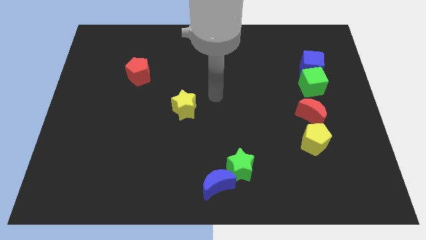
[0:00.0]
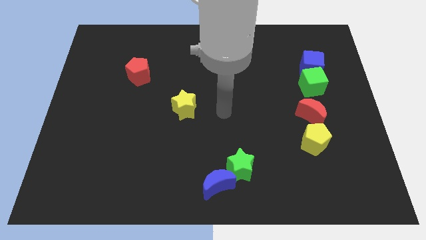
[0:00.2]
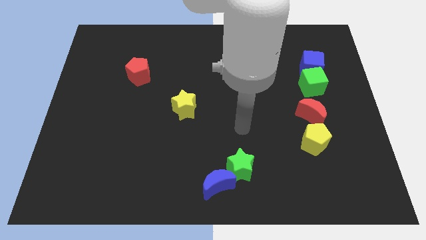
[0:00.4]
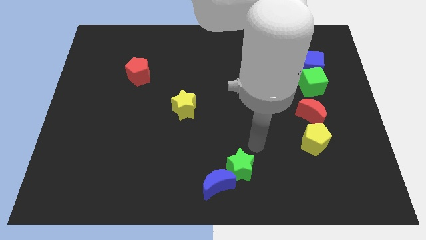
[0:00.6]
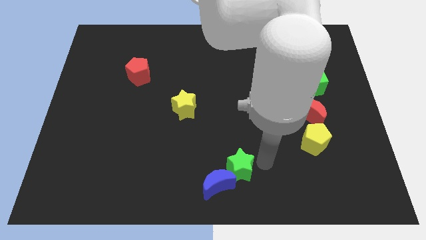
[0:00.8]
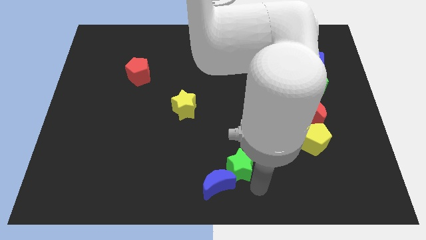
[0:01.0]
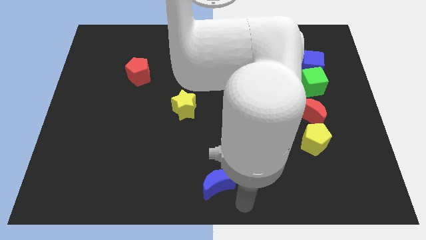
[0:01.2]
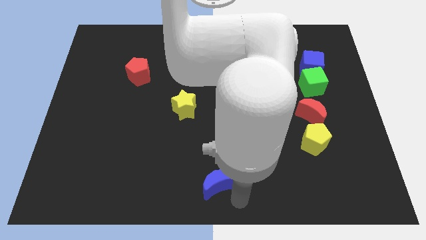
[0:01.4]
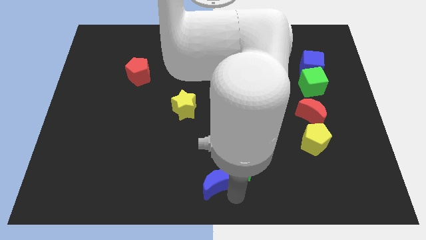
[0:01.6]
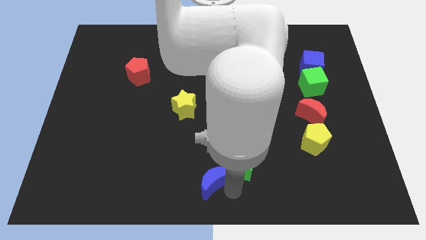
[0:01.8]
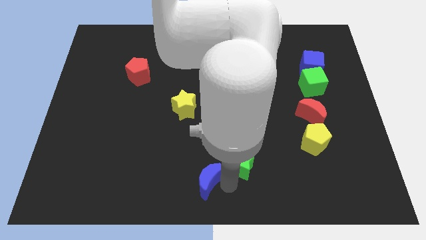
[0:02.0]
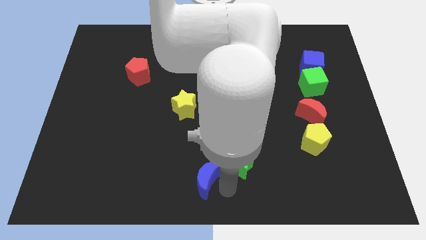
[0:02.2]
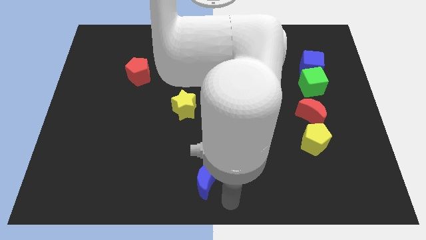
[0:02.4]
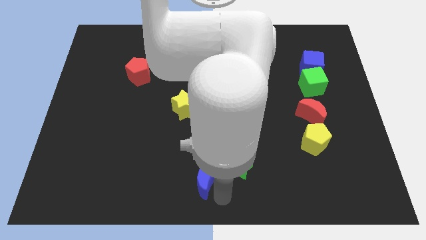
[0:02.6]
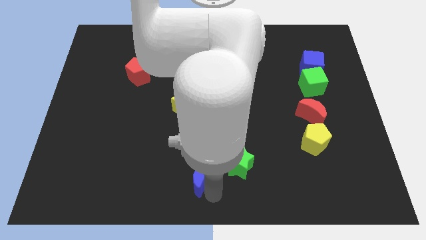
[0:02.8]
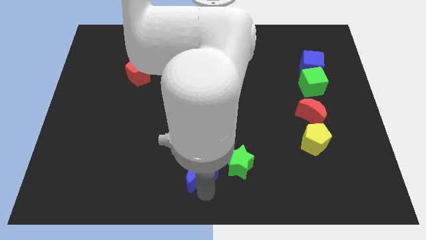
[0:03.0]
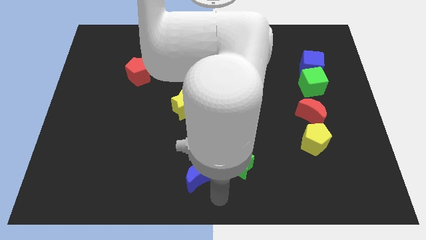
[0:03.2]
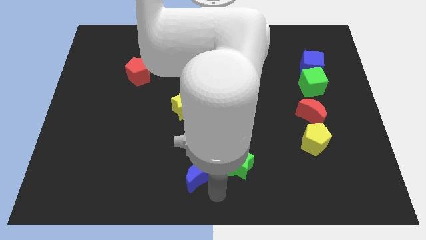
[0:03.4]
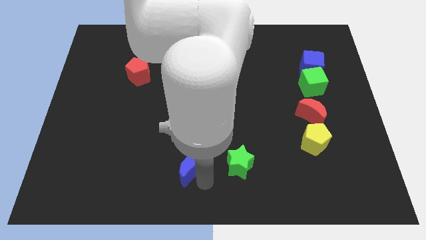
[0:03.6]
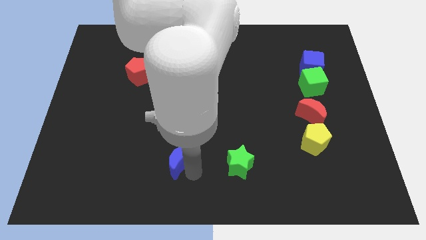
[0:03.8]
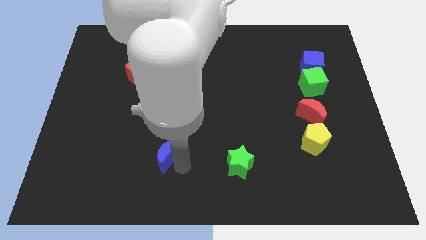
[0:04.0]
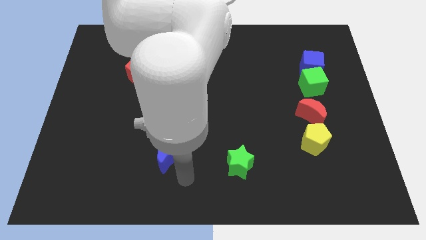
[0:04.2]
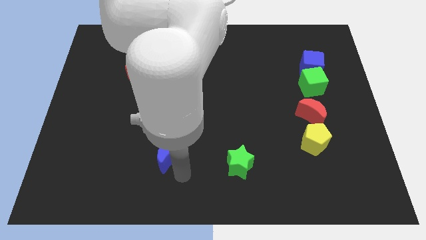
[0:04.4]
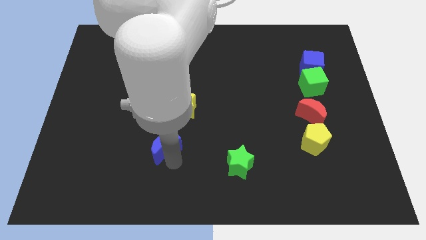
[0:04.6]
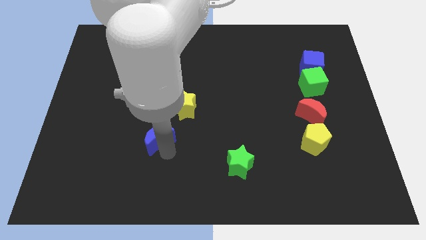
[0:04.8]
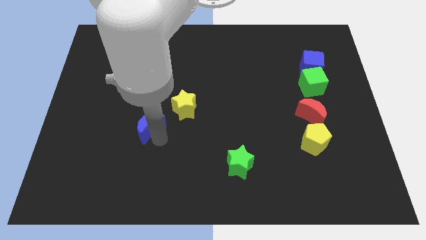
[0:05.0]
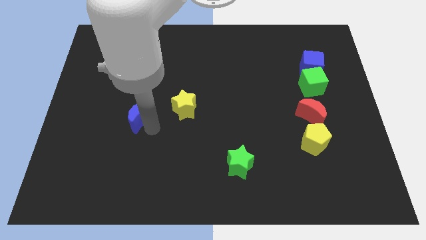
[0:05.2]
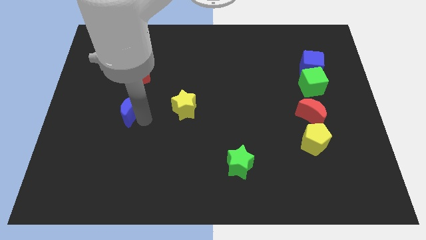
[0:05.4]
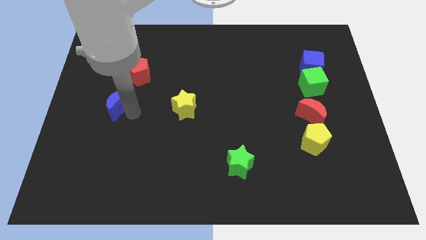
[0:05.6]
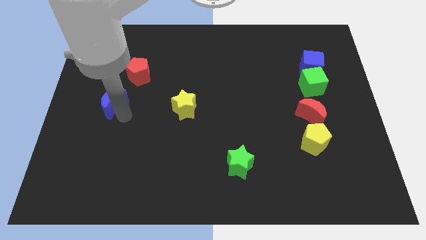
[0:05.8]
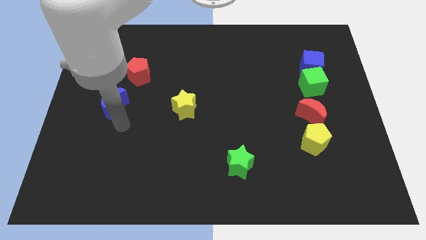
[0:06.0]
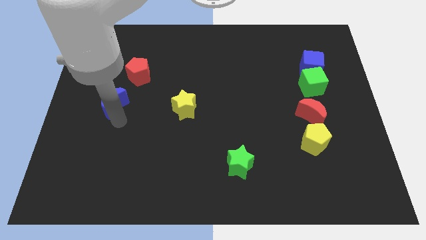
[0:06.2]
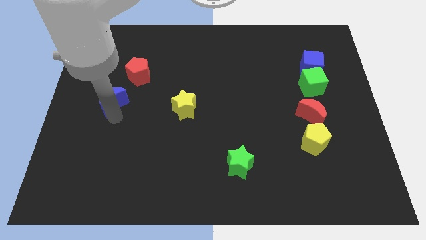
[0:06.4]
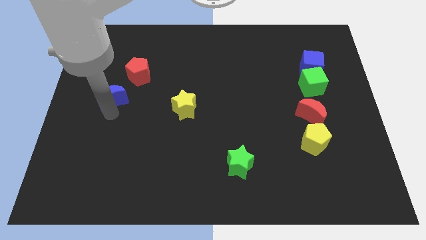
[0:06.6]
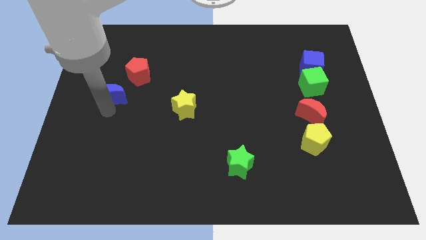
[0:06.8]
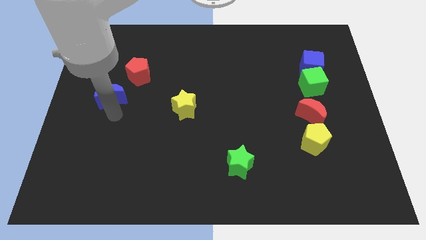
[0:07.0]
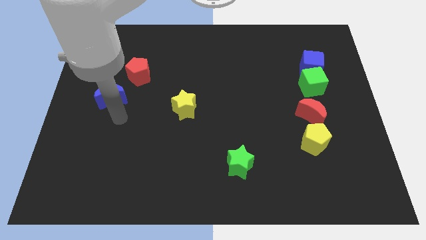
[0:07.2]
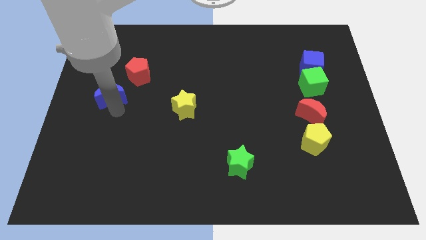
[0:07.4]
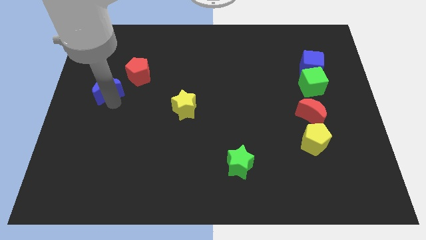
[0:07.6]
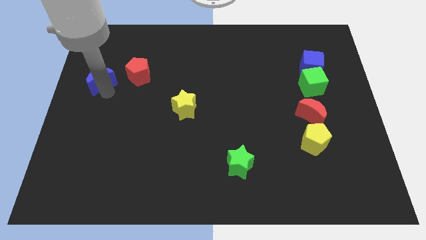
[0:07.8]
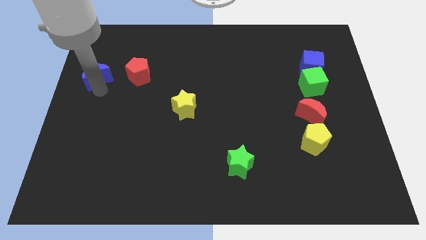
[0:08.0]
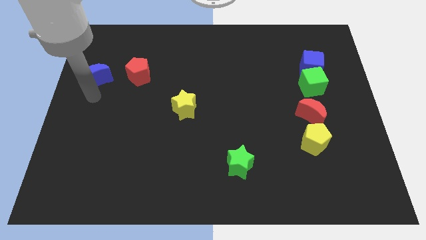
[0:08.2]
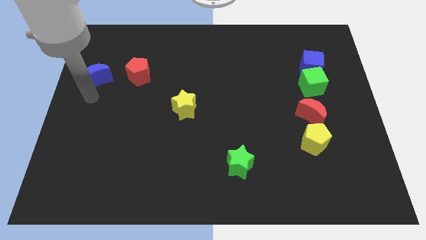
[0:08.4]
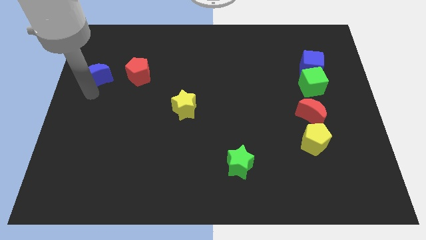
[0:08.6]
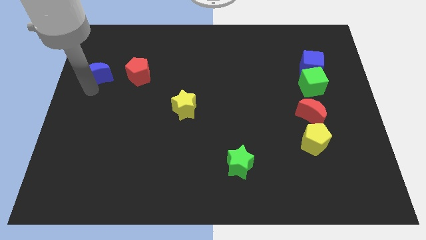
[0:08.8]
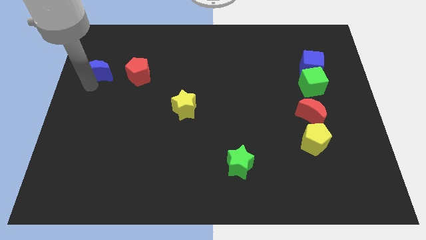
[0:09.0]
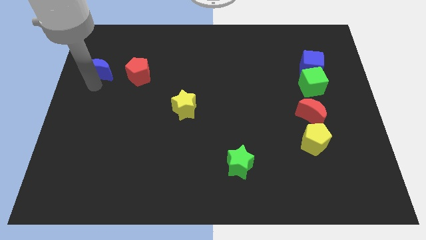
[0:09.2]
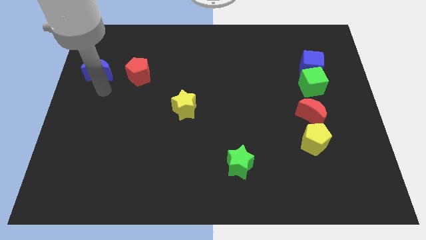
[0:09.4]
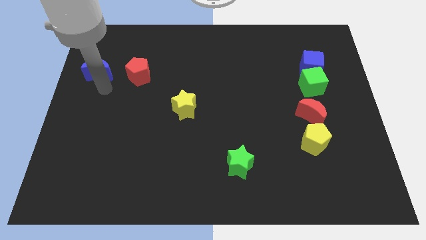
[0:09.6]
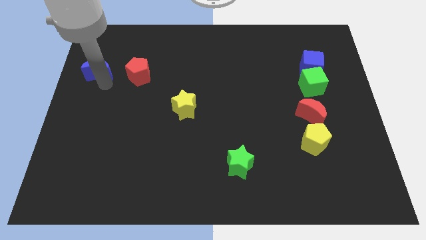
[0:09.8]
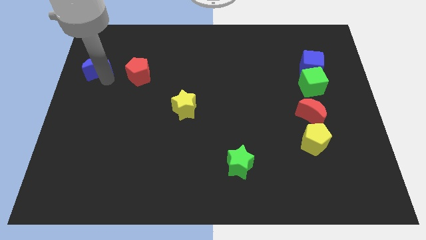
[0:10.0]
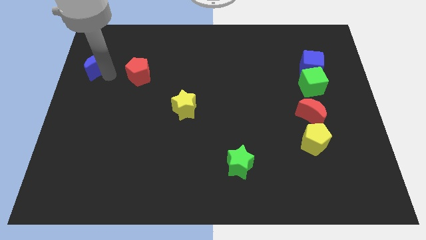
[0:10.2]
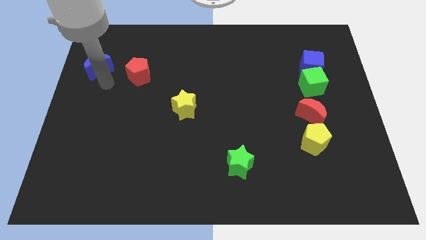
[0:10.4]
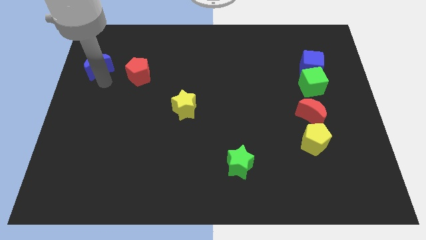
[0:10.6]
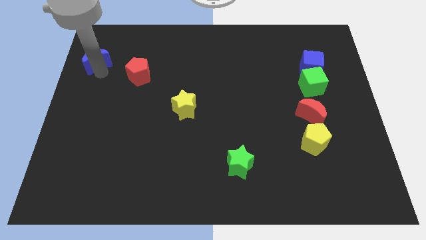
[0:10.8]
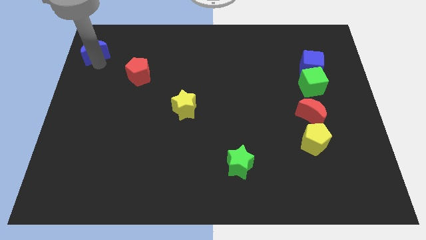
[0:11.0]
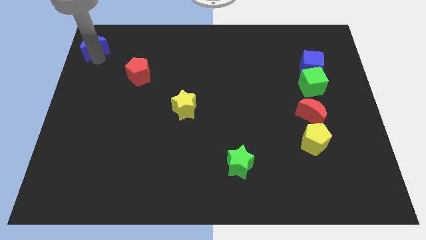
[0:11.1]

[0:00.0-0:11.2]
move the blue moon to the top left
